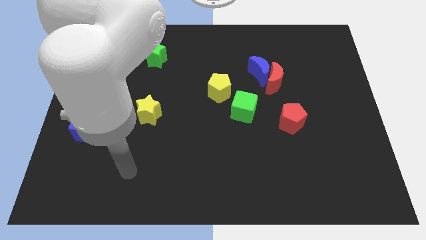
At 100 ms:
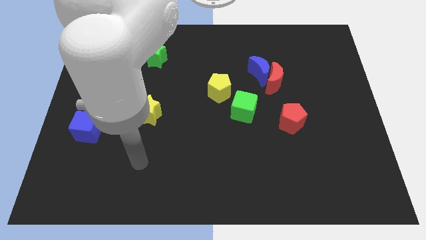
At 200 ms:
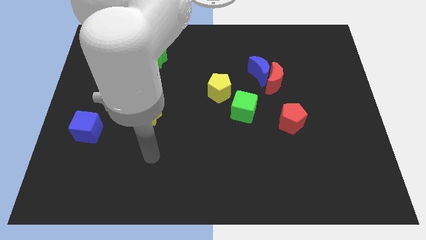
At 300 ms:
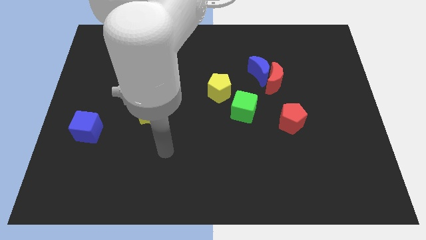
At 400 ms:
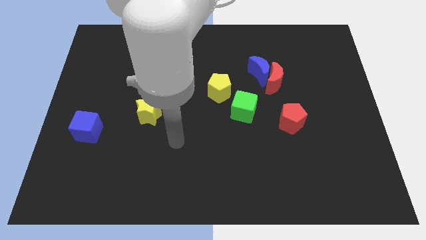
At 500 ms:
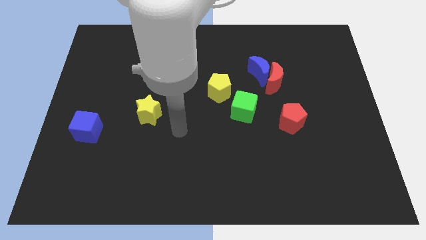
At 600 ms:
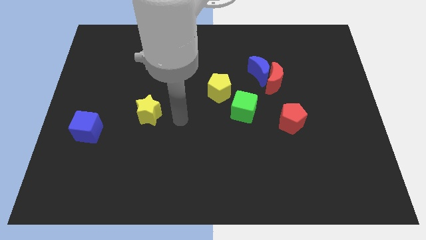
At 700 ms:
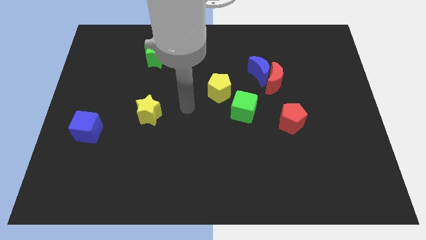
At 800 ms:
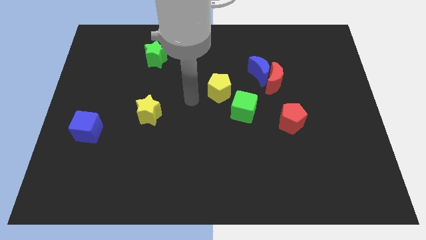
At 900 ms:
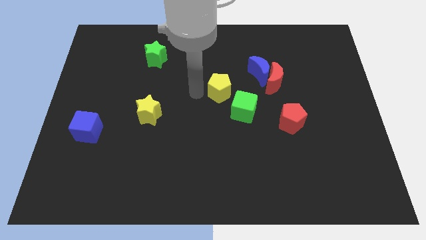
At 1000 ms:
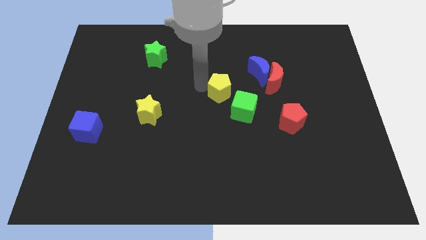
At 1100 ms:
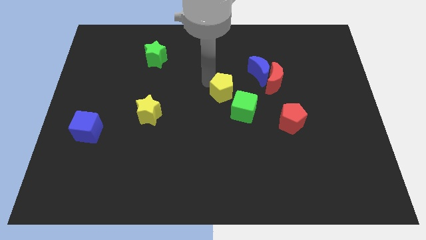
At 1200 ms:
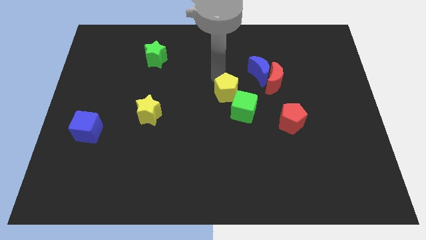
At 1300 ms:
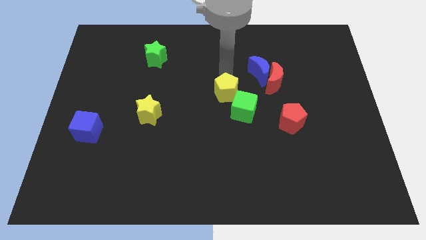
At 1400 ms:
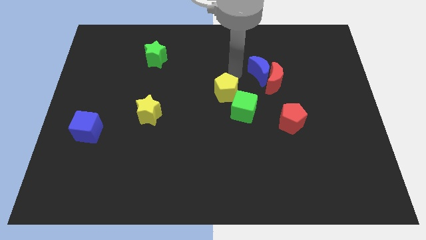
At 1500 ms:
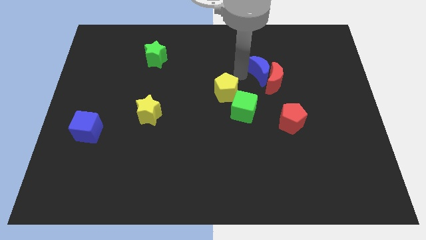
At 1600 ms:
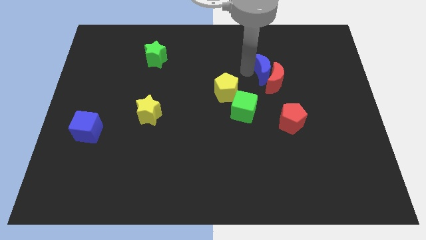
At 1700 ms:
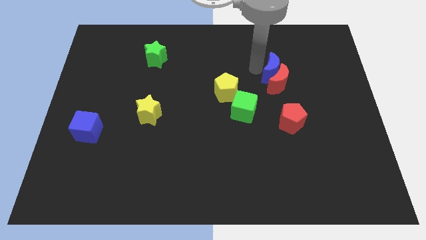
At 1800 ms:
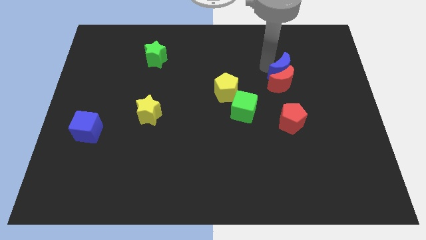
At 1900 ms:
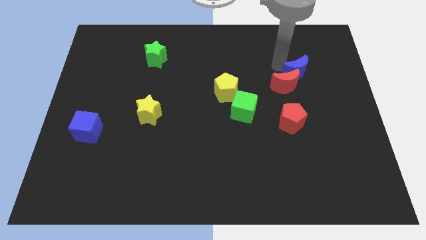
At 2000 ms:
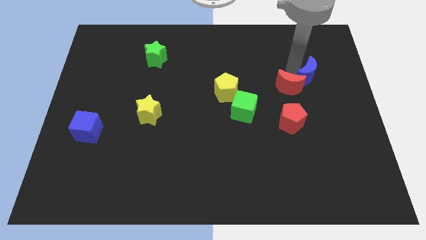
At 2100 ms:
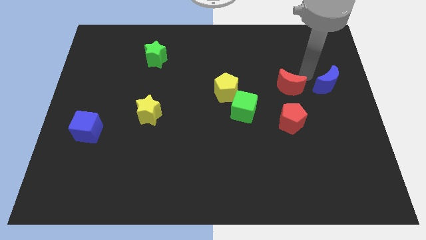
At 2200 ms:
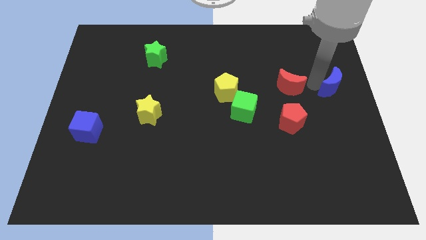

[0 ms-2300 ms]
separate the red moon from the blue moon

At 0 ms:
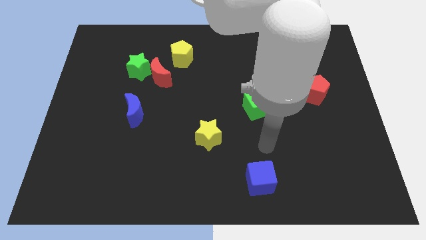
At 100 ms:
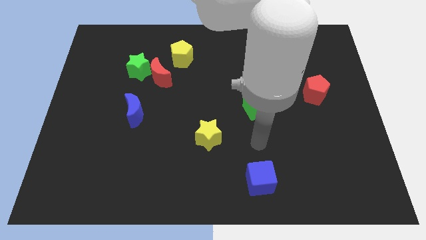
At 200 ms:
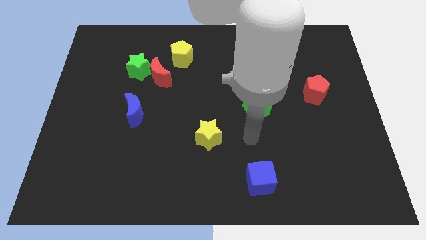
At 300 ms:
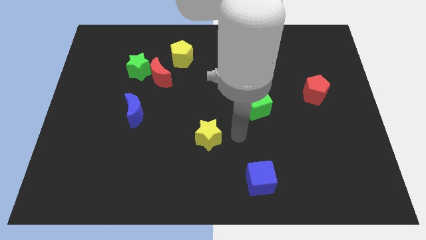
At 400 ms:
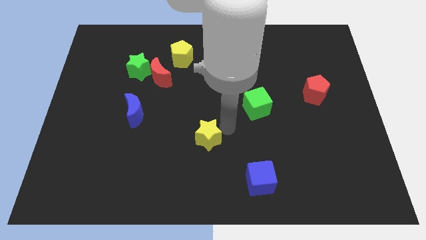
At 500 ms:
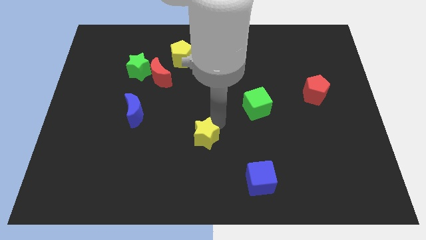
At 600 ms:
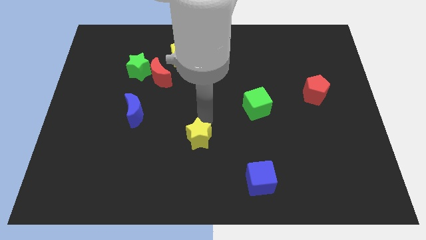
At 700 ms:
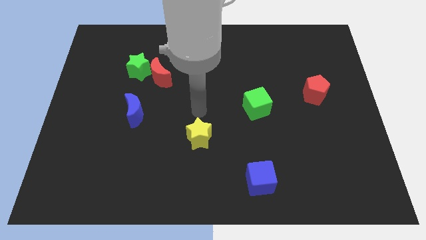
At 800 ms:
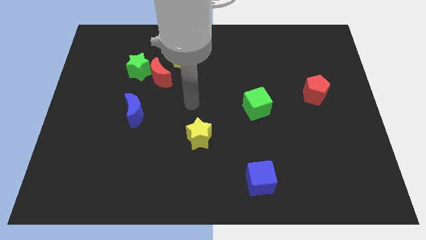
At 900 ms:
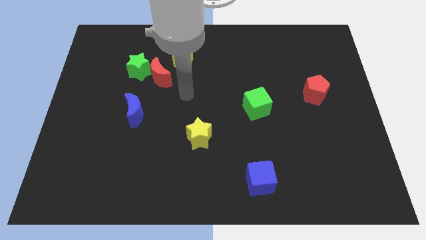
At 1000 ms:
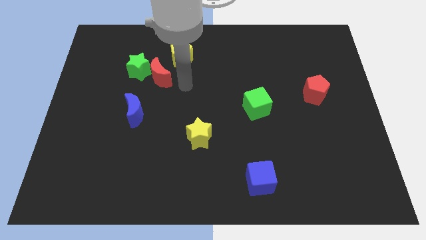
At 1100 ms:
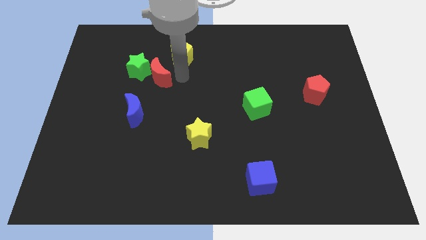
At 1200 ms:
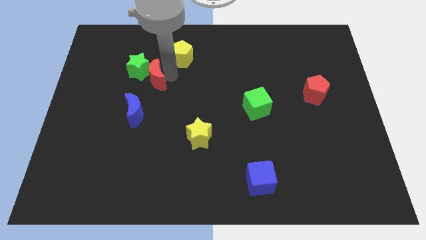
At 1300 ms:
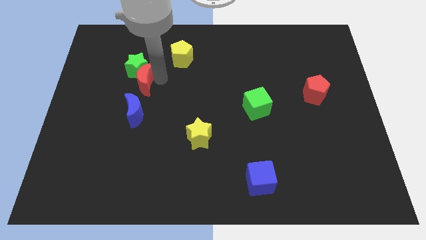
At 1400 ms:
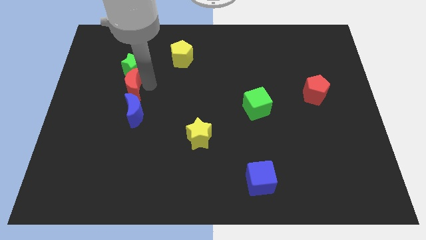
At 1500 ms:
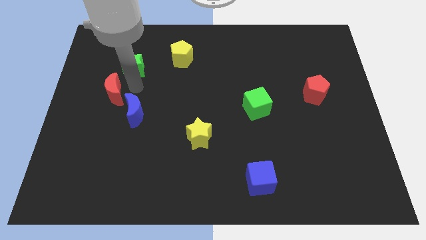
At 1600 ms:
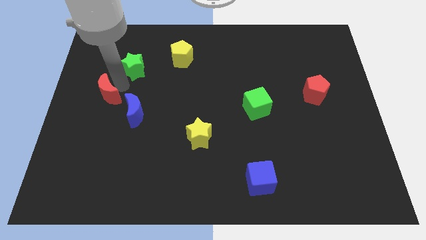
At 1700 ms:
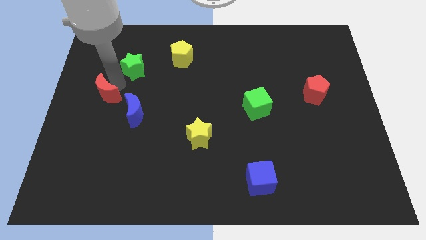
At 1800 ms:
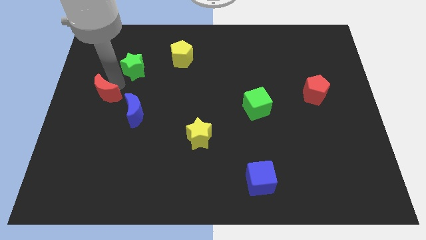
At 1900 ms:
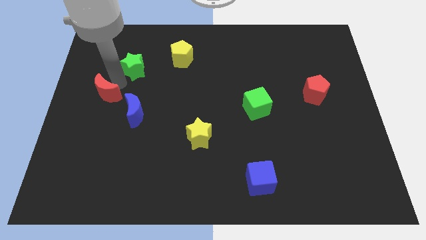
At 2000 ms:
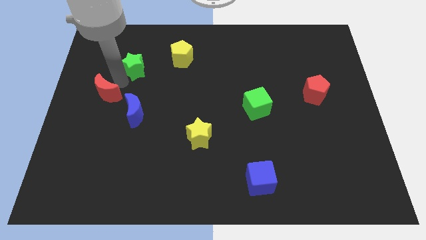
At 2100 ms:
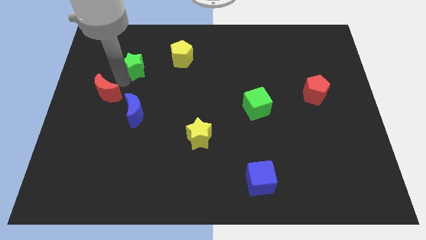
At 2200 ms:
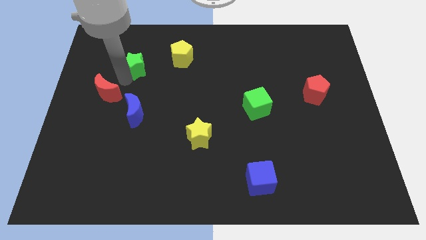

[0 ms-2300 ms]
move the green star away from the red moon

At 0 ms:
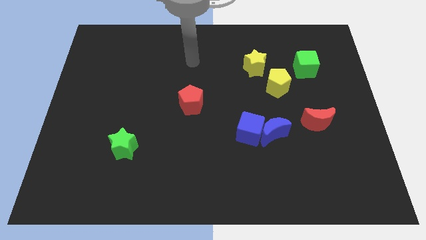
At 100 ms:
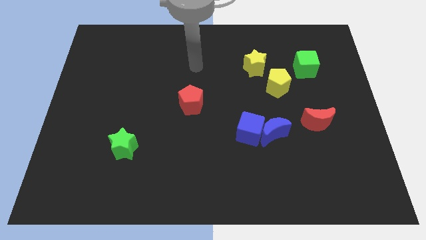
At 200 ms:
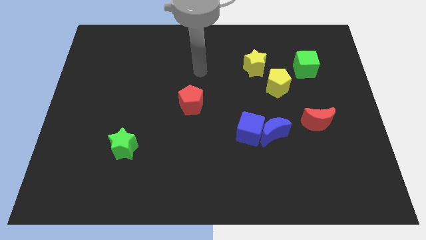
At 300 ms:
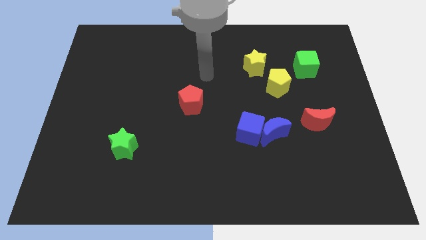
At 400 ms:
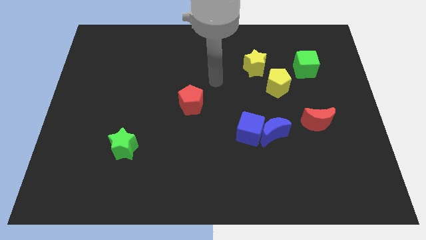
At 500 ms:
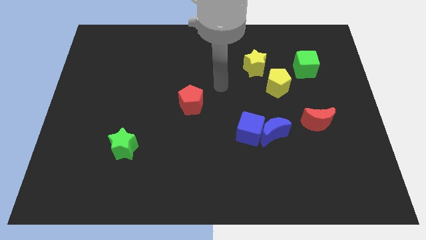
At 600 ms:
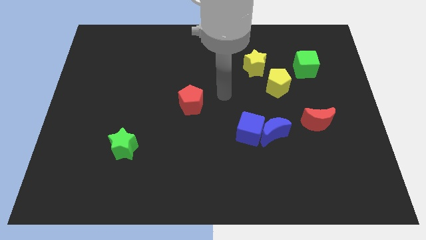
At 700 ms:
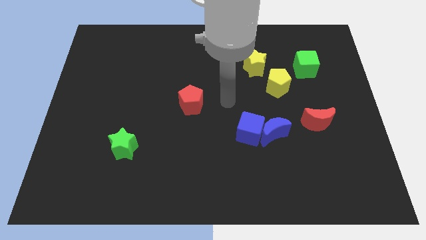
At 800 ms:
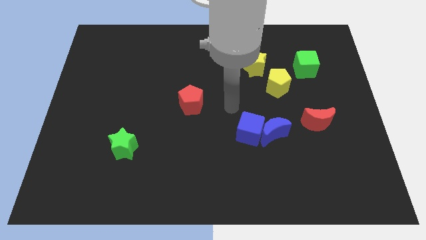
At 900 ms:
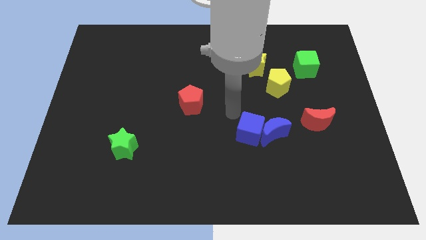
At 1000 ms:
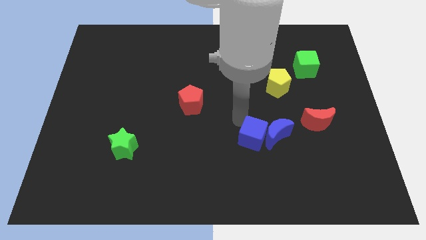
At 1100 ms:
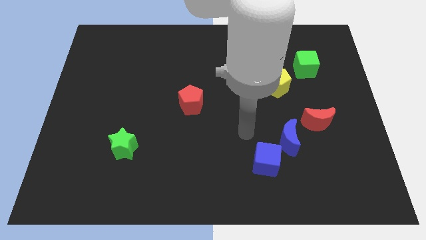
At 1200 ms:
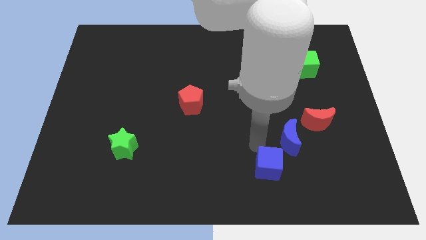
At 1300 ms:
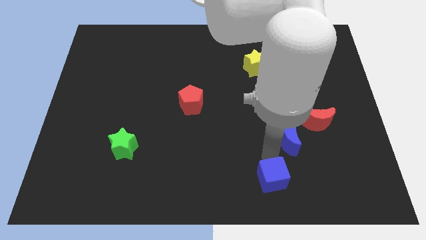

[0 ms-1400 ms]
pull the blue moon apart from the blue cube

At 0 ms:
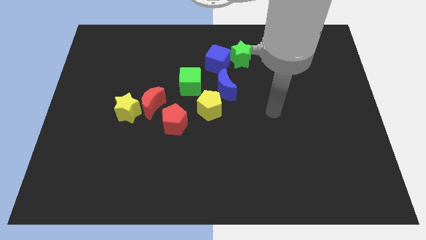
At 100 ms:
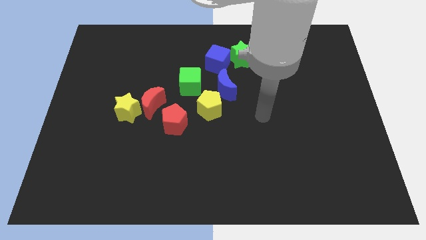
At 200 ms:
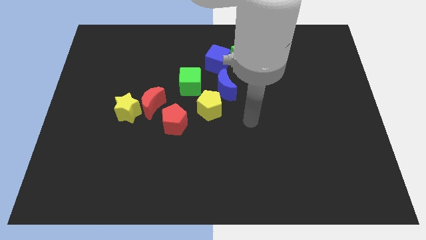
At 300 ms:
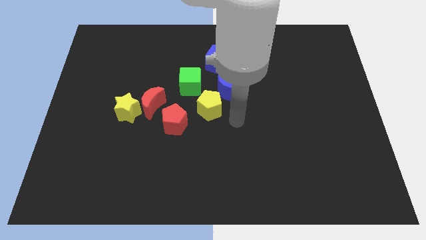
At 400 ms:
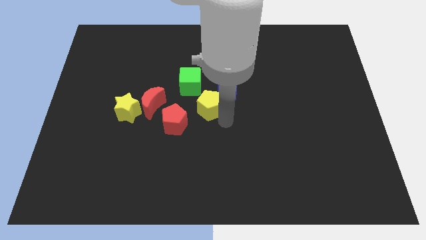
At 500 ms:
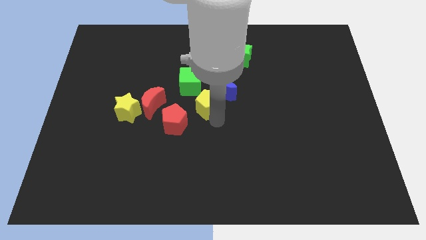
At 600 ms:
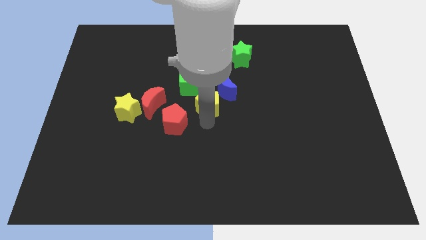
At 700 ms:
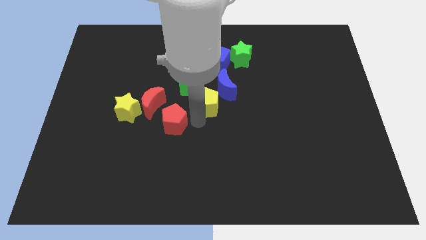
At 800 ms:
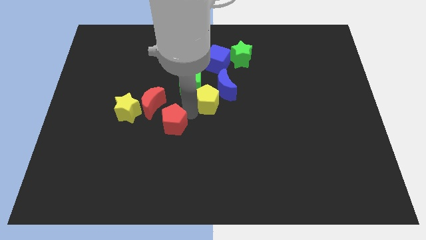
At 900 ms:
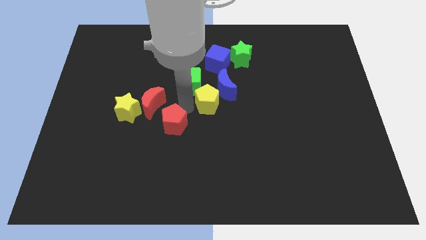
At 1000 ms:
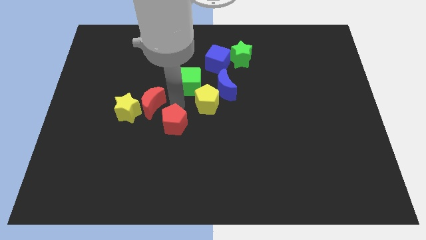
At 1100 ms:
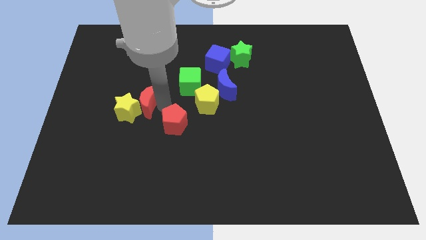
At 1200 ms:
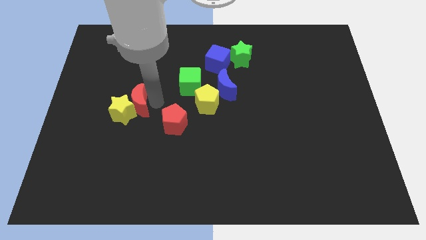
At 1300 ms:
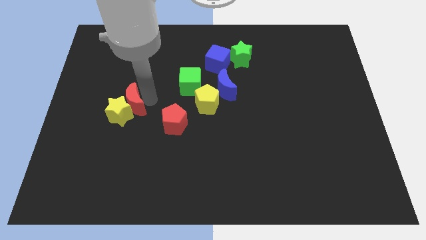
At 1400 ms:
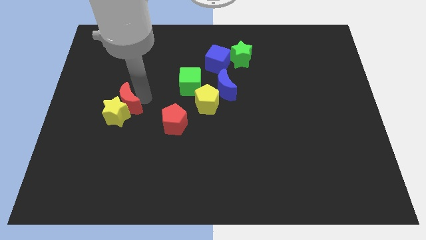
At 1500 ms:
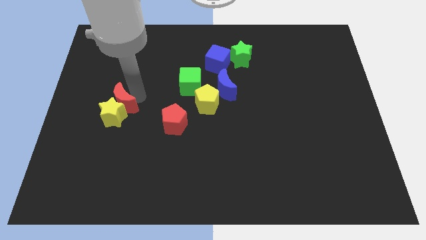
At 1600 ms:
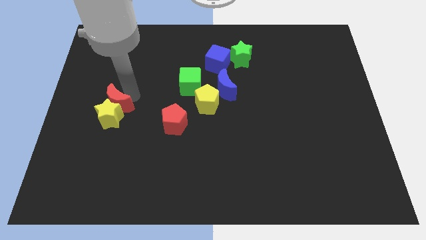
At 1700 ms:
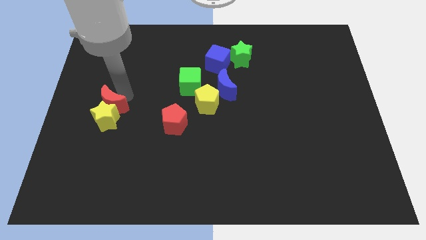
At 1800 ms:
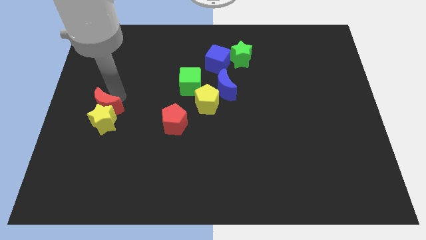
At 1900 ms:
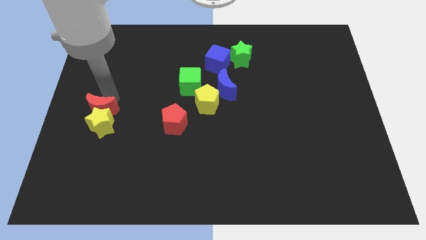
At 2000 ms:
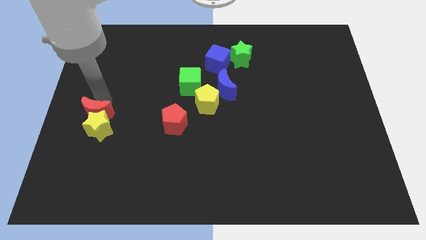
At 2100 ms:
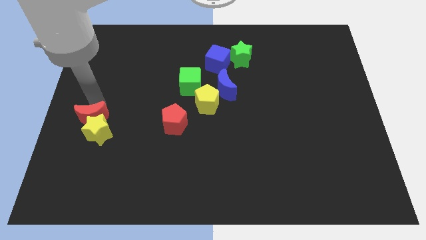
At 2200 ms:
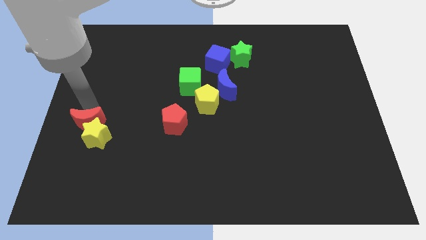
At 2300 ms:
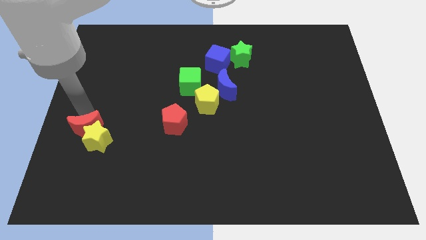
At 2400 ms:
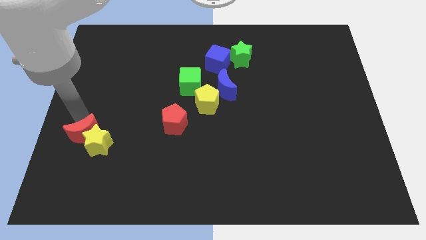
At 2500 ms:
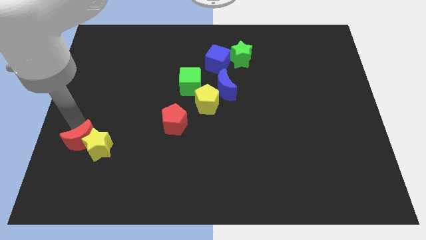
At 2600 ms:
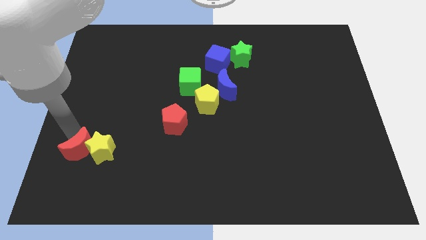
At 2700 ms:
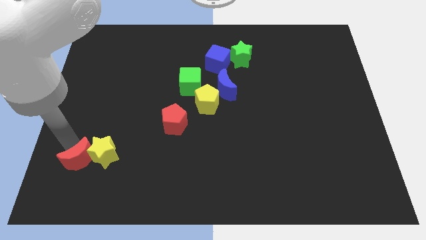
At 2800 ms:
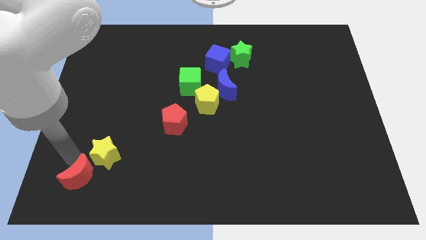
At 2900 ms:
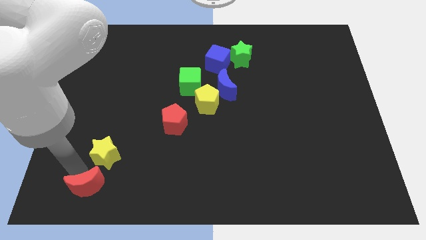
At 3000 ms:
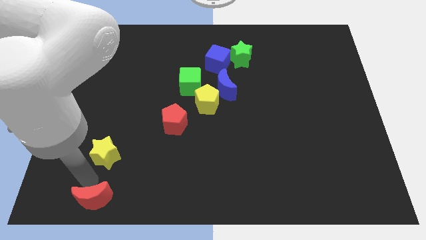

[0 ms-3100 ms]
pull the yellow star apart from the red moon

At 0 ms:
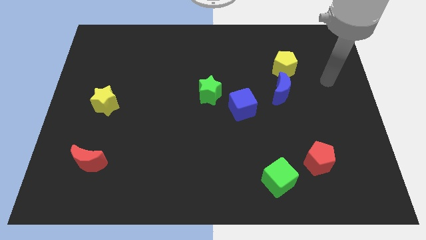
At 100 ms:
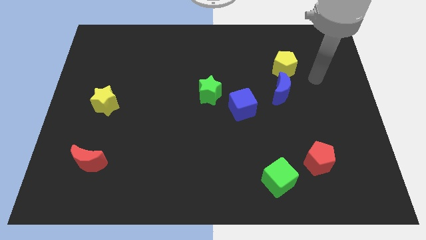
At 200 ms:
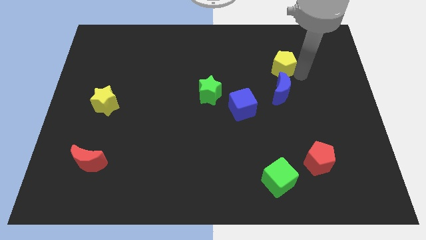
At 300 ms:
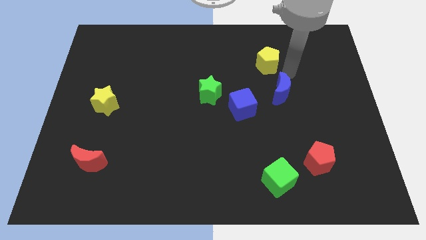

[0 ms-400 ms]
separate the blue moon from the yellow pentagon
